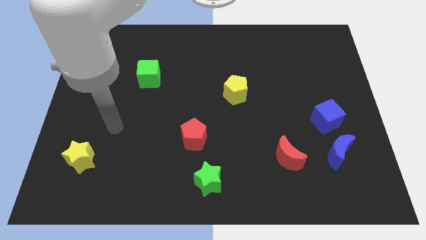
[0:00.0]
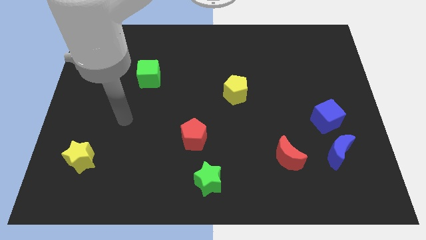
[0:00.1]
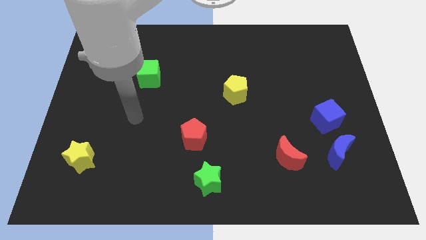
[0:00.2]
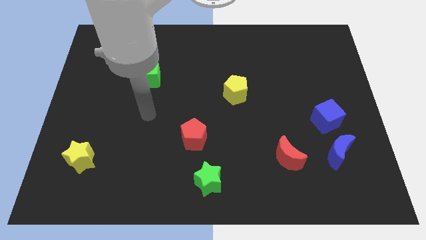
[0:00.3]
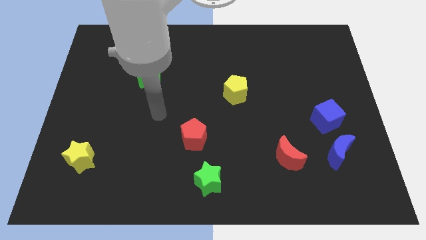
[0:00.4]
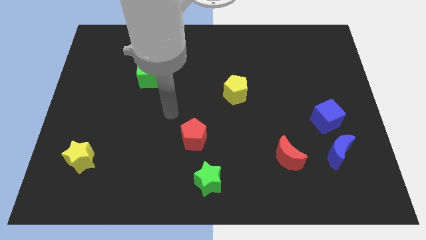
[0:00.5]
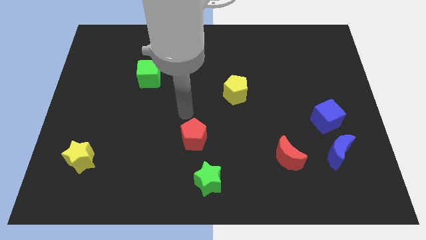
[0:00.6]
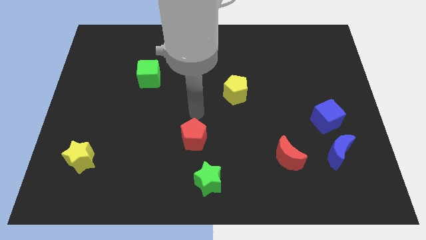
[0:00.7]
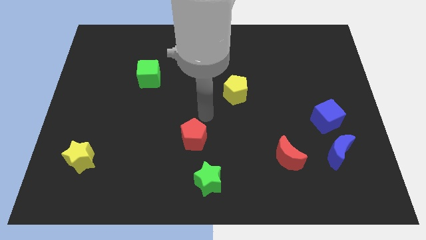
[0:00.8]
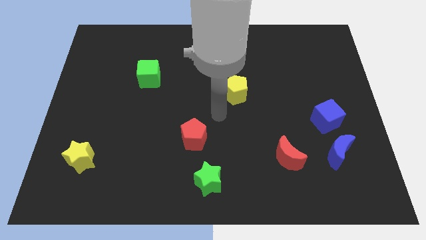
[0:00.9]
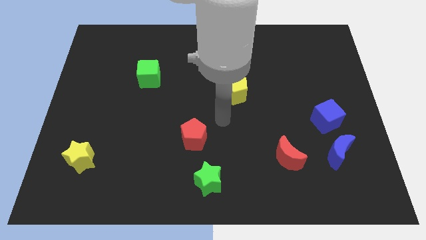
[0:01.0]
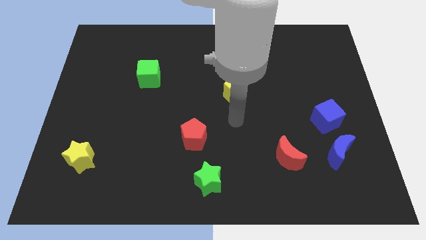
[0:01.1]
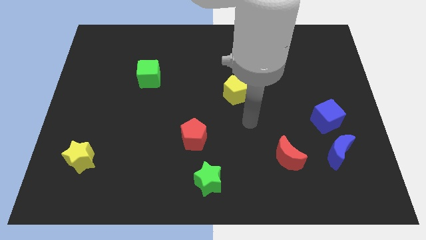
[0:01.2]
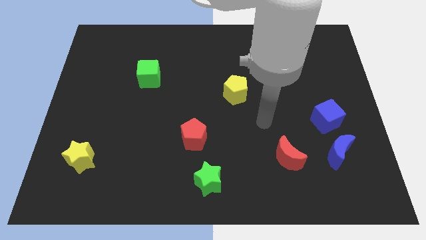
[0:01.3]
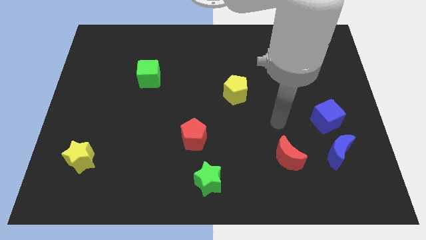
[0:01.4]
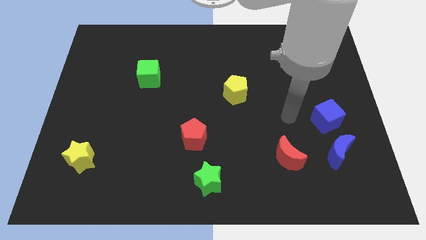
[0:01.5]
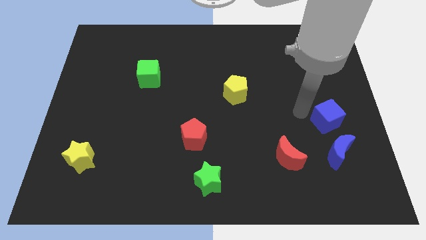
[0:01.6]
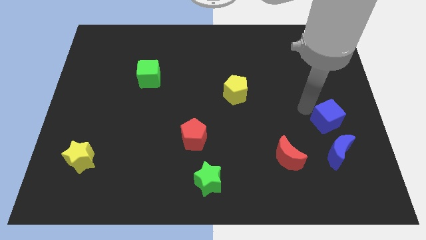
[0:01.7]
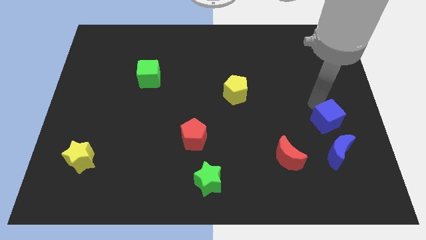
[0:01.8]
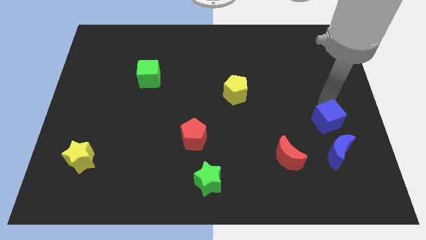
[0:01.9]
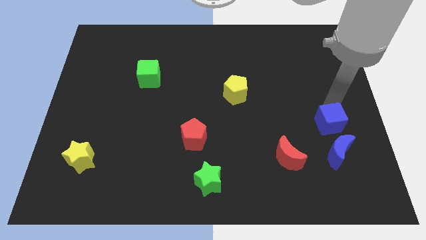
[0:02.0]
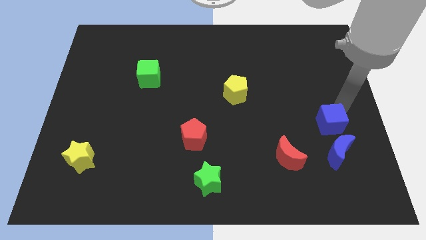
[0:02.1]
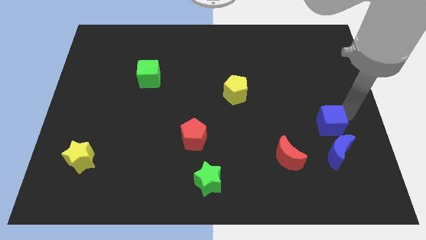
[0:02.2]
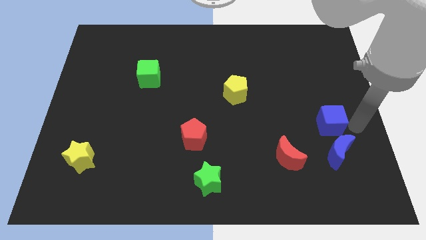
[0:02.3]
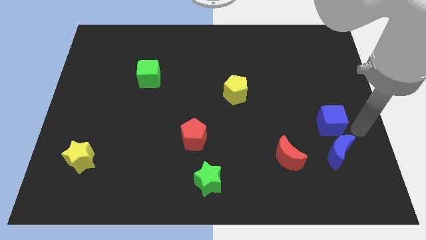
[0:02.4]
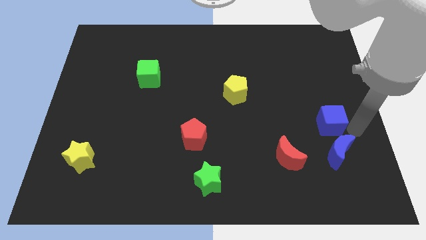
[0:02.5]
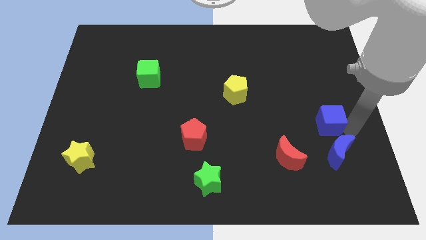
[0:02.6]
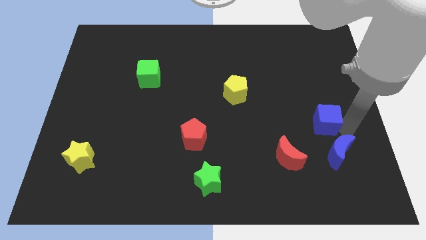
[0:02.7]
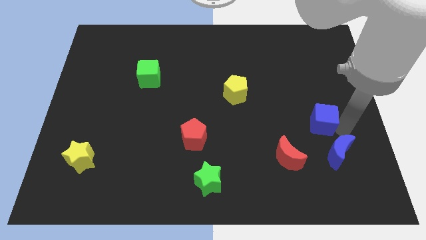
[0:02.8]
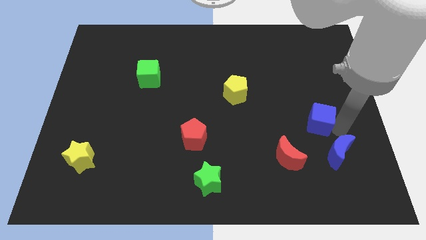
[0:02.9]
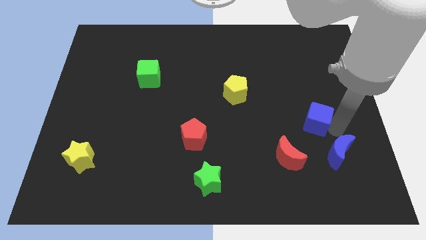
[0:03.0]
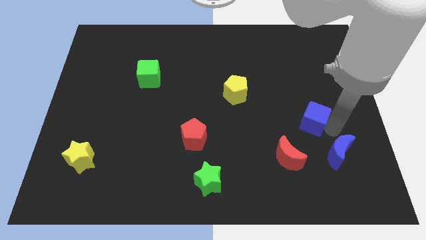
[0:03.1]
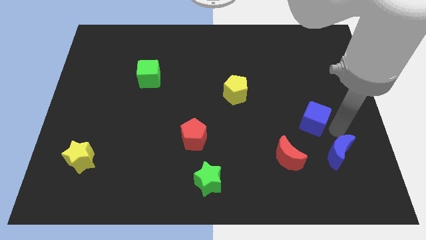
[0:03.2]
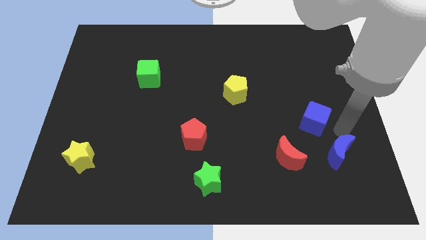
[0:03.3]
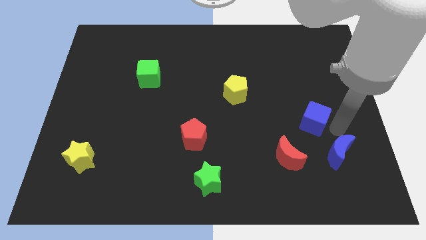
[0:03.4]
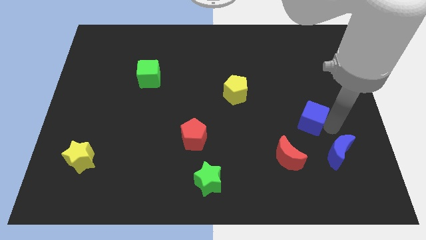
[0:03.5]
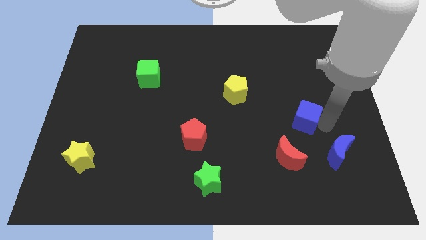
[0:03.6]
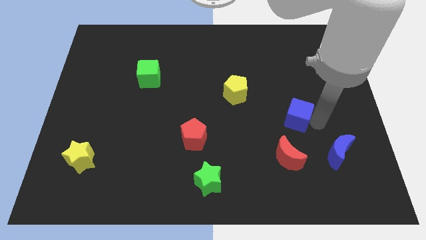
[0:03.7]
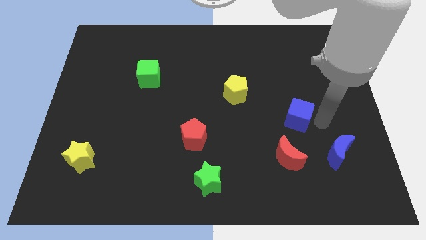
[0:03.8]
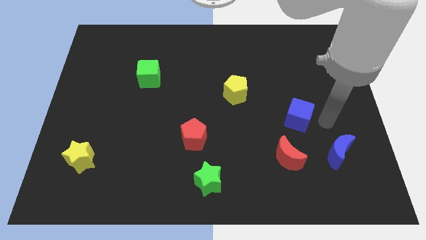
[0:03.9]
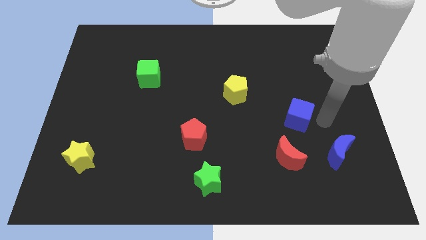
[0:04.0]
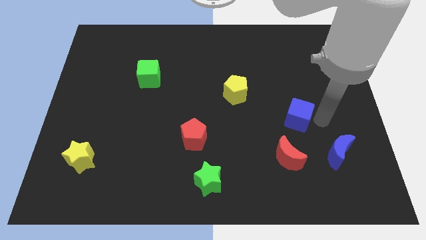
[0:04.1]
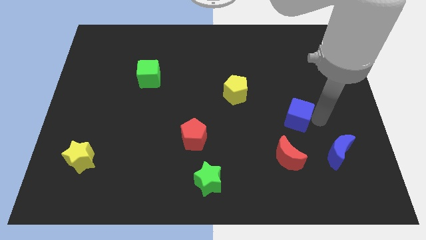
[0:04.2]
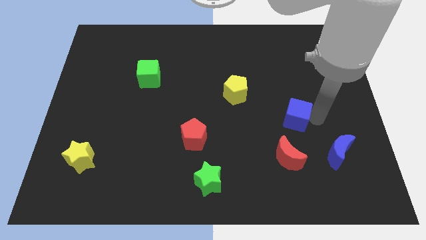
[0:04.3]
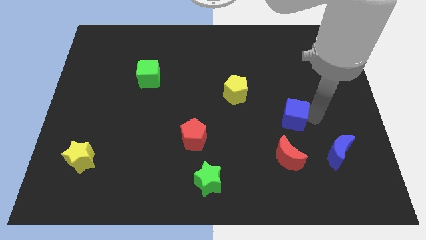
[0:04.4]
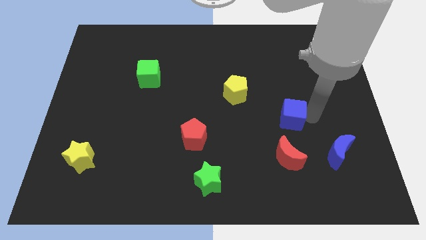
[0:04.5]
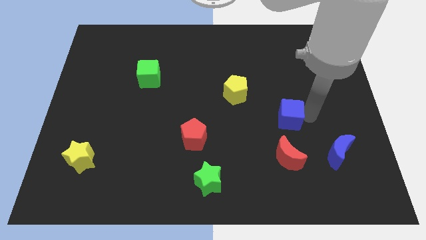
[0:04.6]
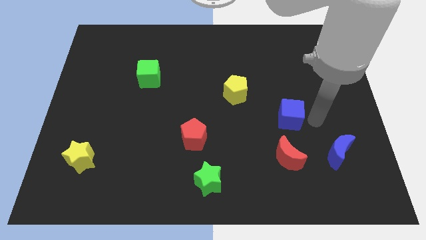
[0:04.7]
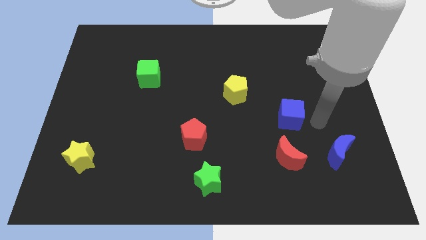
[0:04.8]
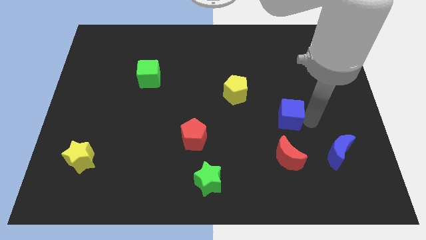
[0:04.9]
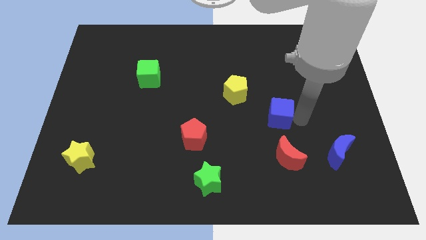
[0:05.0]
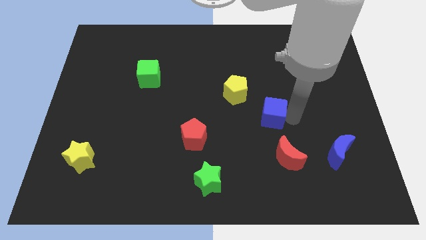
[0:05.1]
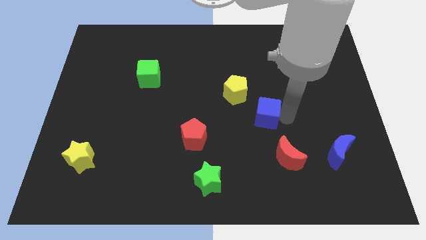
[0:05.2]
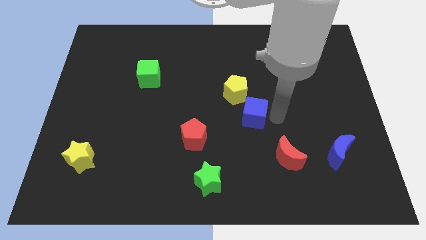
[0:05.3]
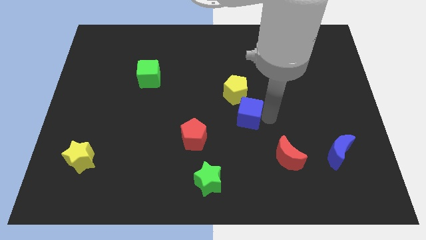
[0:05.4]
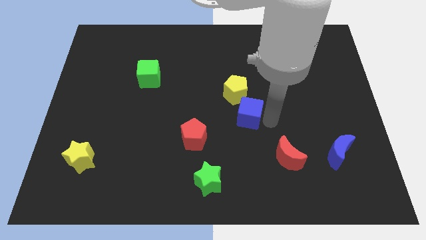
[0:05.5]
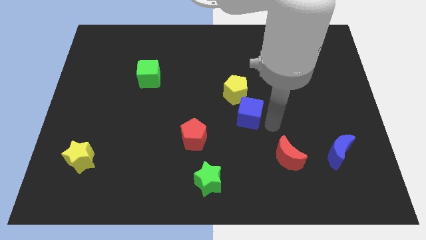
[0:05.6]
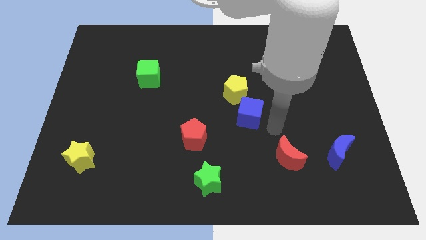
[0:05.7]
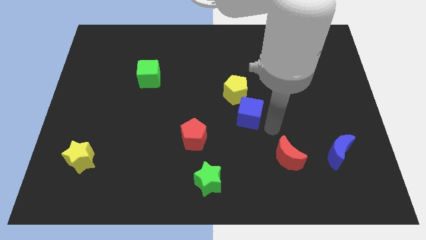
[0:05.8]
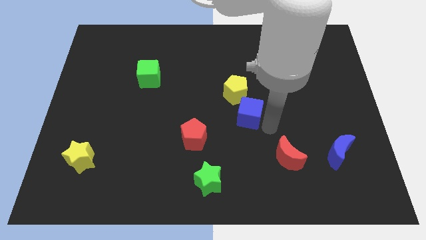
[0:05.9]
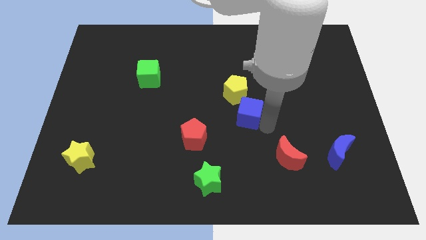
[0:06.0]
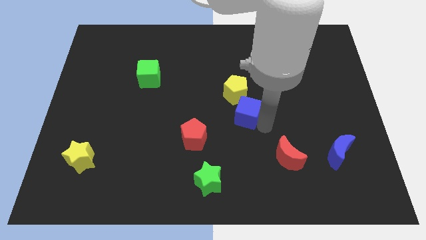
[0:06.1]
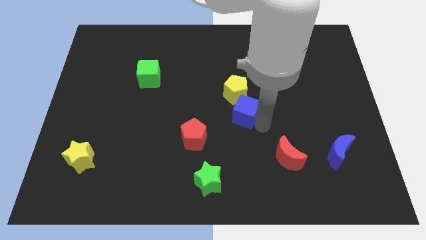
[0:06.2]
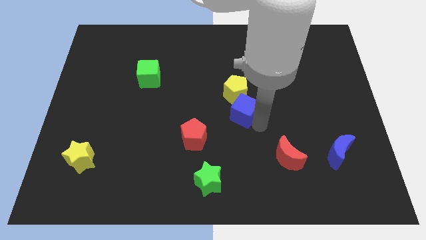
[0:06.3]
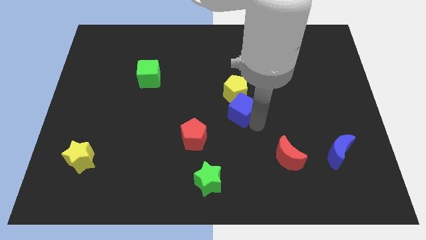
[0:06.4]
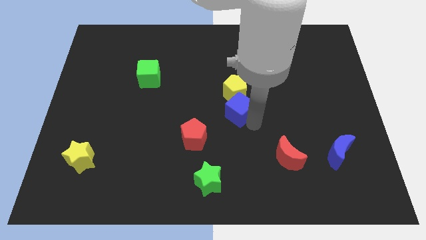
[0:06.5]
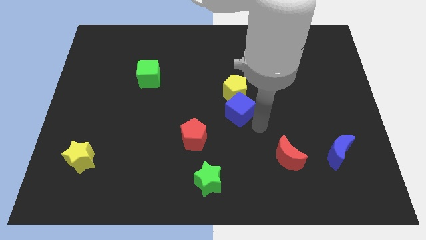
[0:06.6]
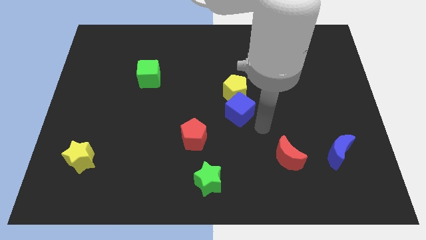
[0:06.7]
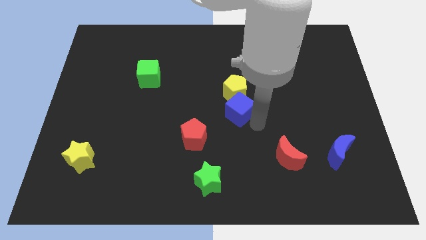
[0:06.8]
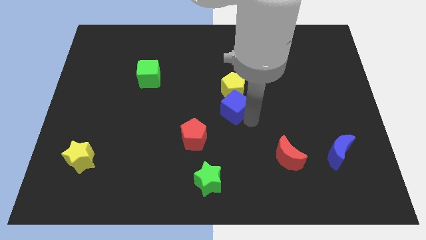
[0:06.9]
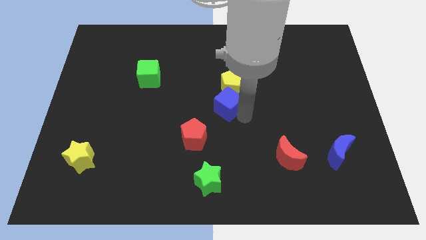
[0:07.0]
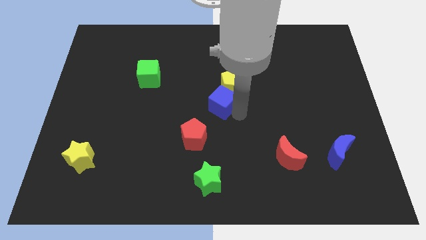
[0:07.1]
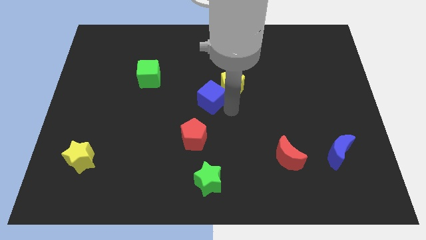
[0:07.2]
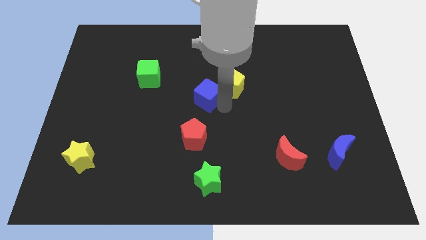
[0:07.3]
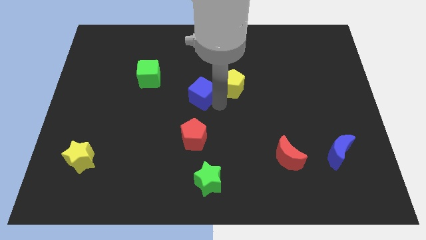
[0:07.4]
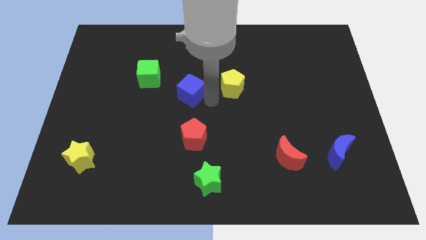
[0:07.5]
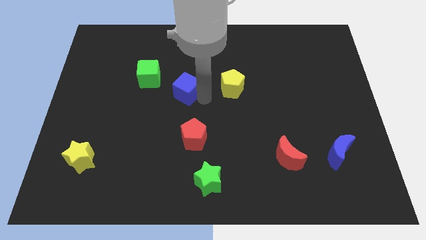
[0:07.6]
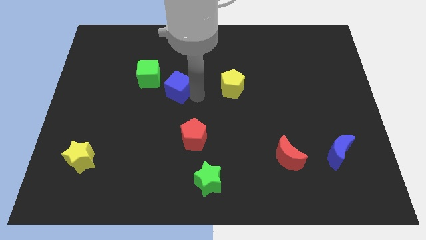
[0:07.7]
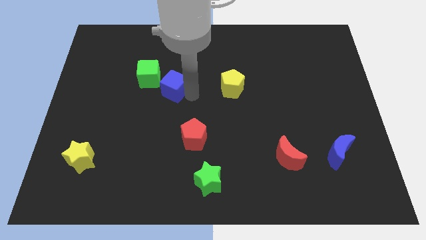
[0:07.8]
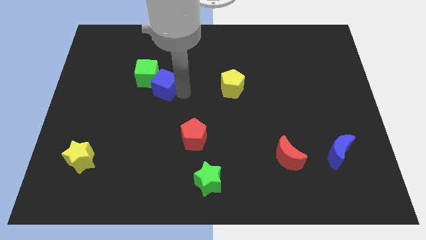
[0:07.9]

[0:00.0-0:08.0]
slide the blue cube close to the green cube

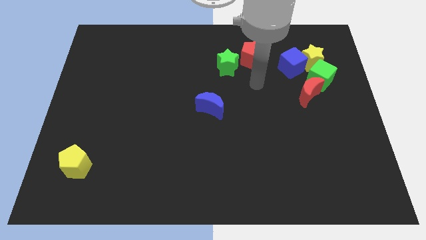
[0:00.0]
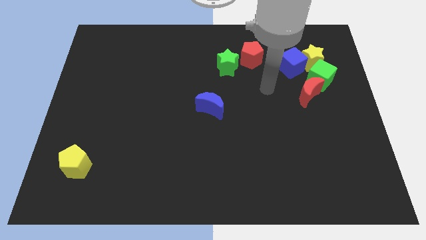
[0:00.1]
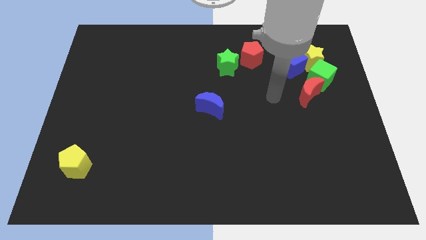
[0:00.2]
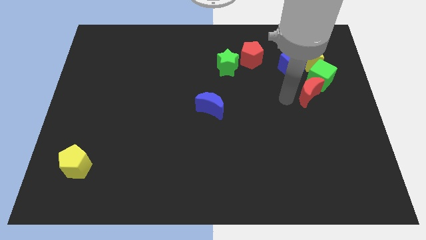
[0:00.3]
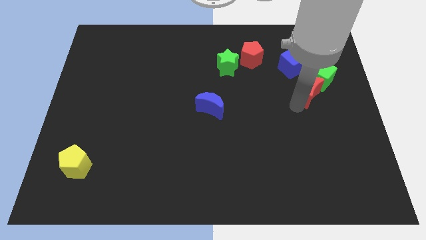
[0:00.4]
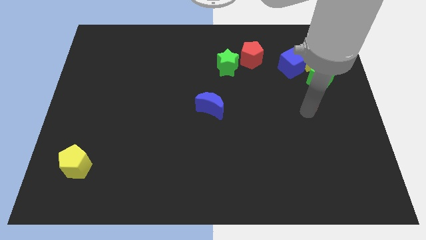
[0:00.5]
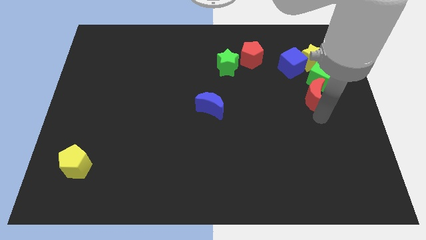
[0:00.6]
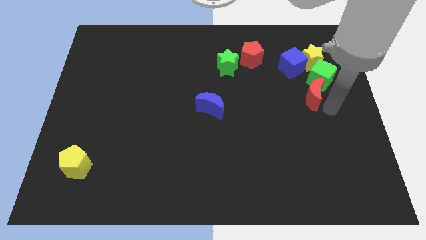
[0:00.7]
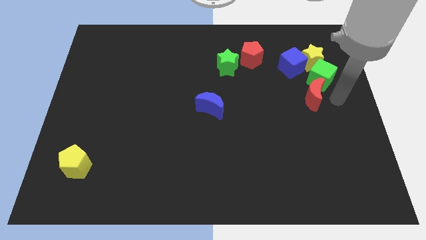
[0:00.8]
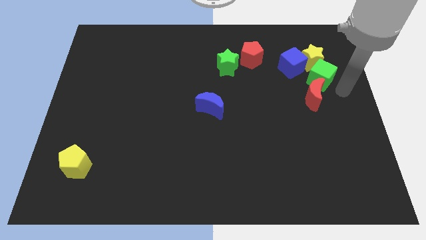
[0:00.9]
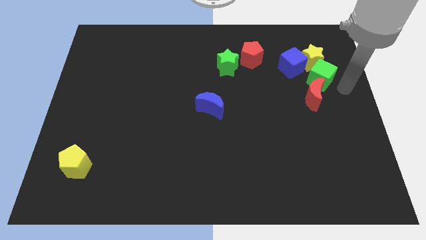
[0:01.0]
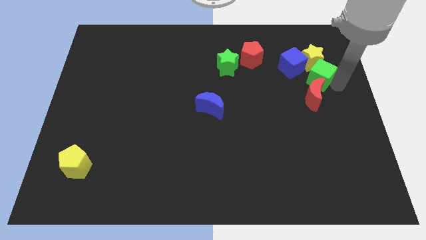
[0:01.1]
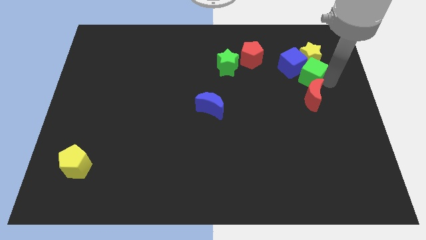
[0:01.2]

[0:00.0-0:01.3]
put the green cube next to the blue cube
